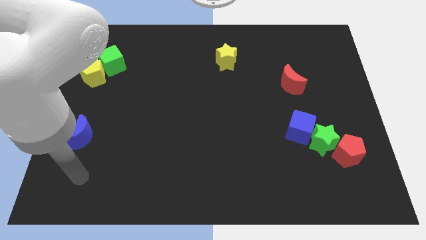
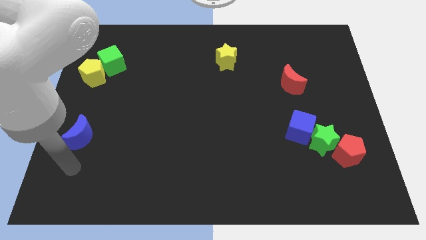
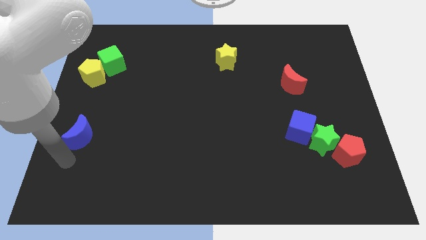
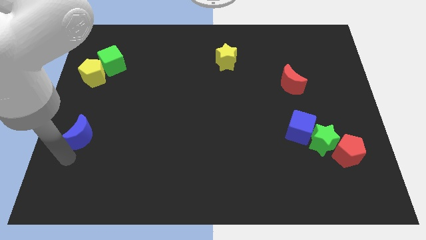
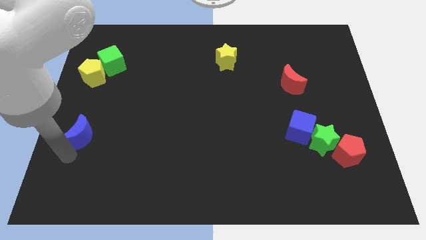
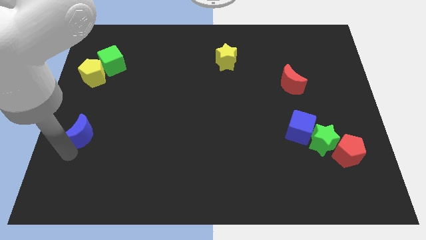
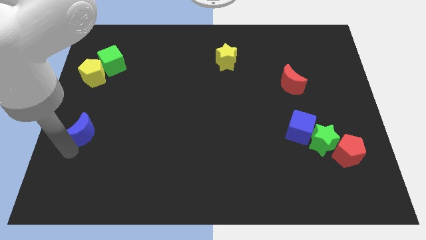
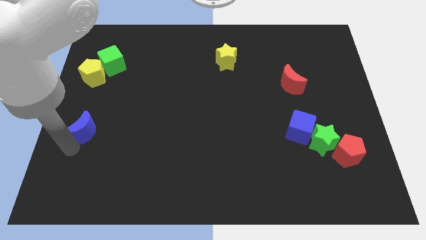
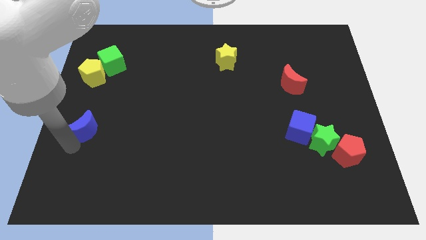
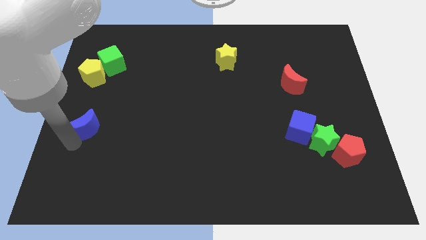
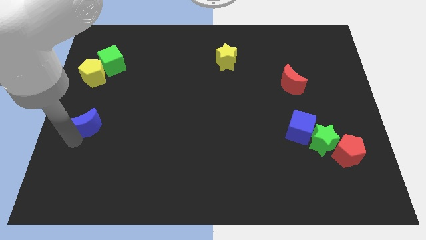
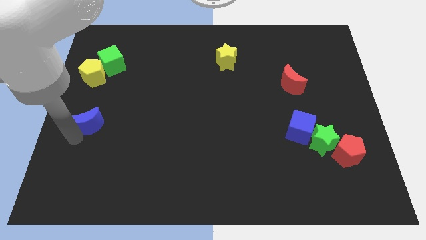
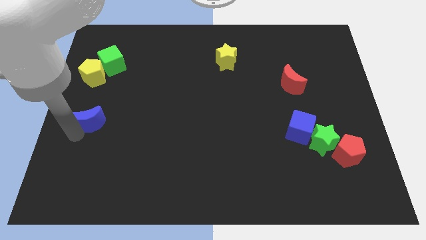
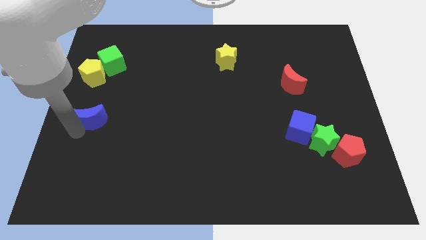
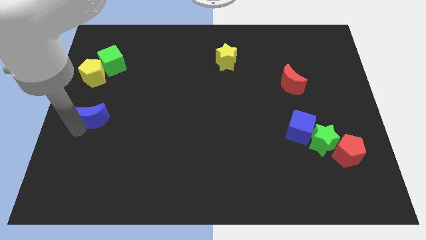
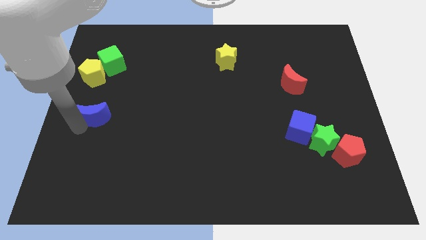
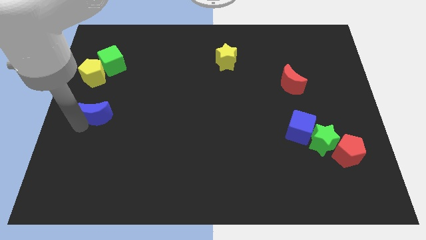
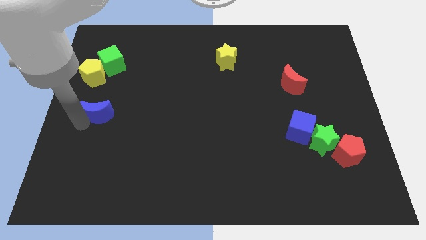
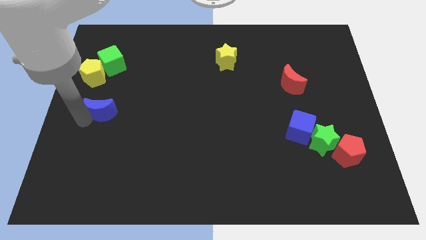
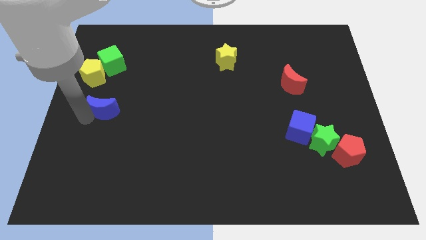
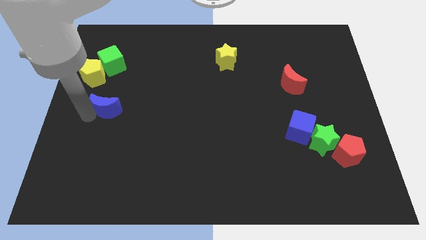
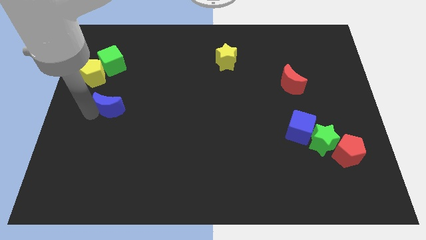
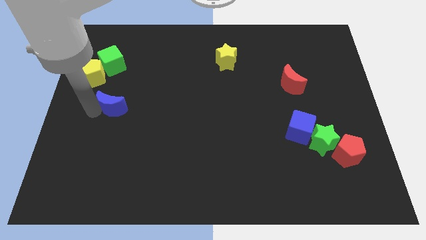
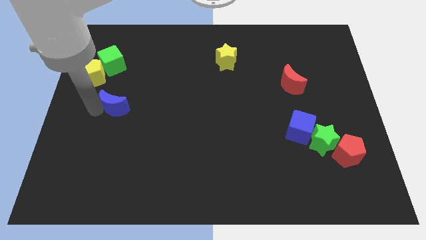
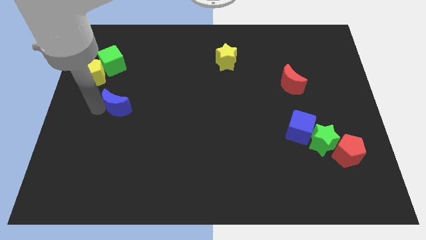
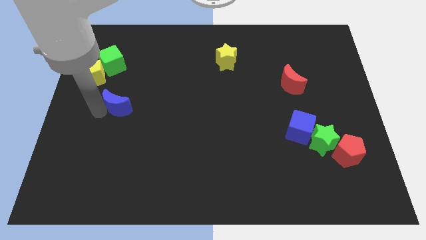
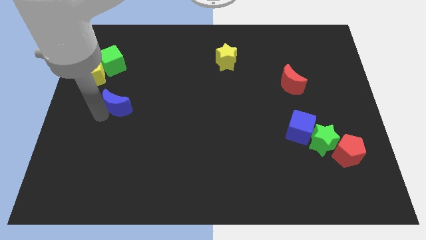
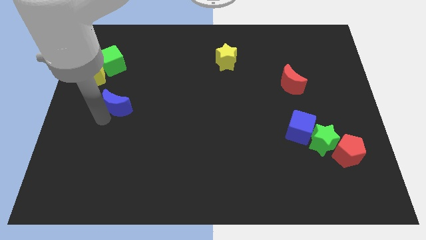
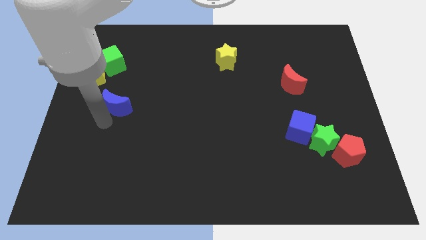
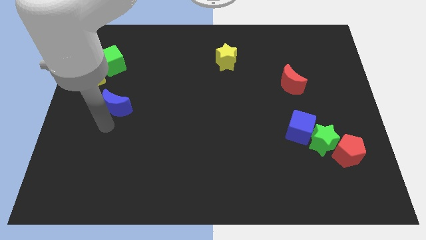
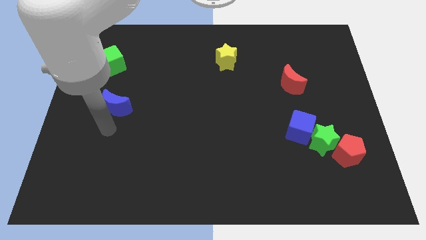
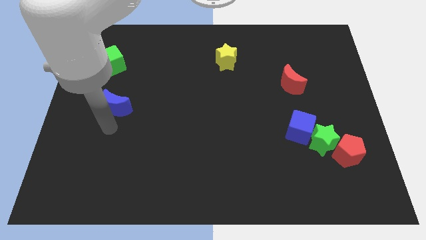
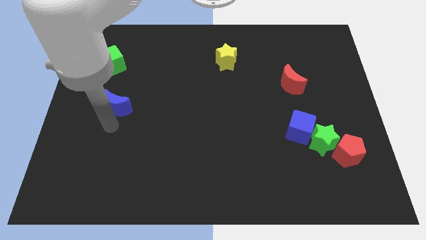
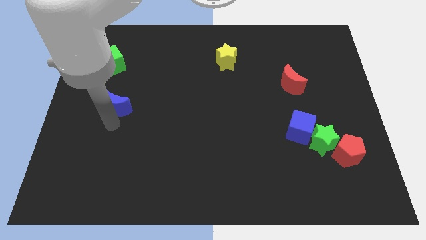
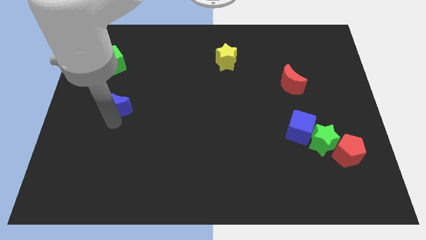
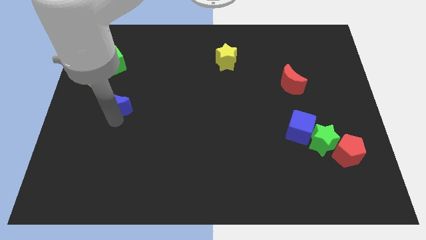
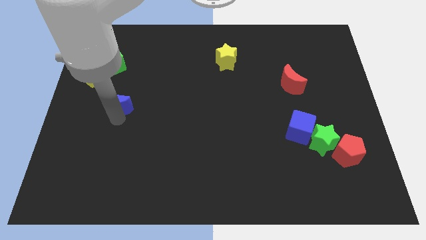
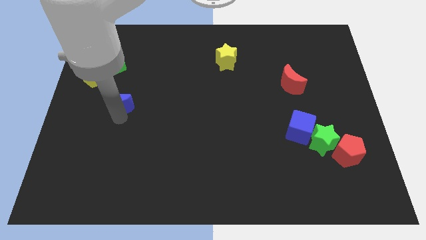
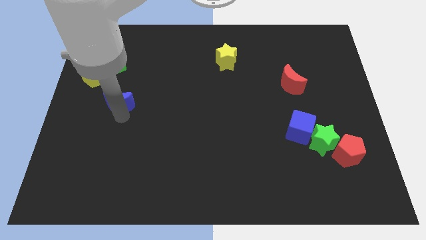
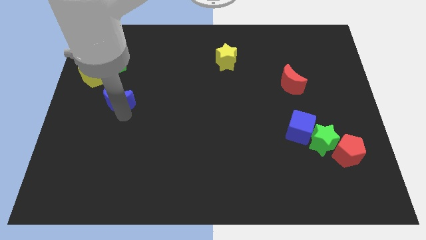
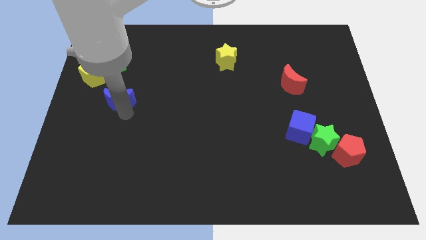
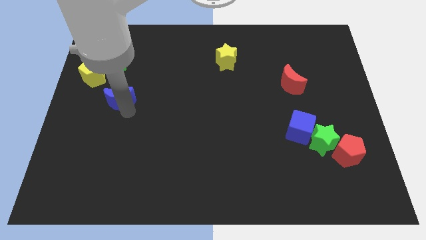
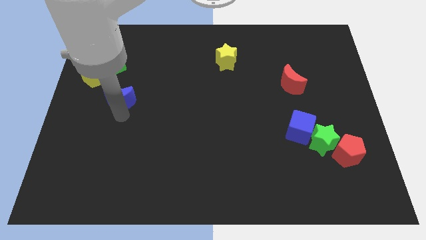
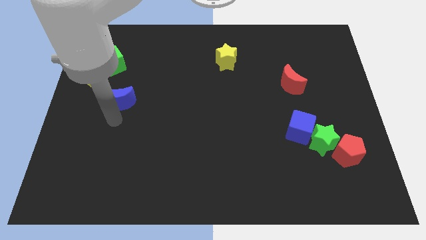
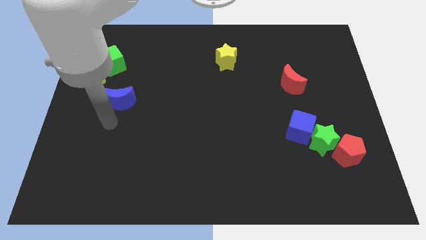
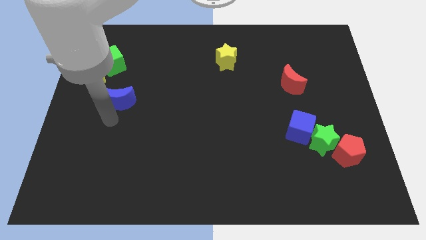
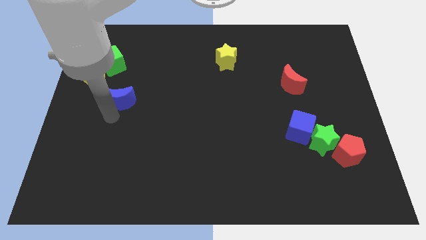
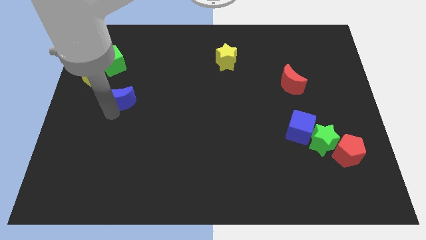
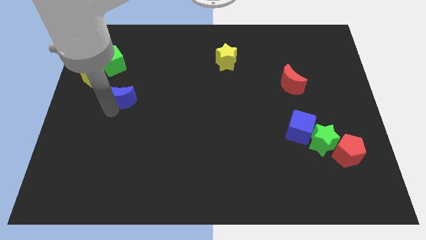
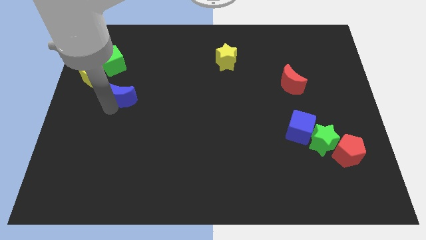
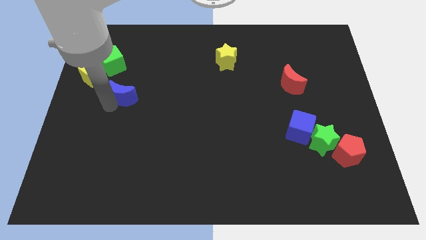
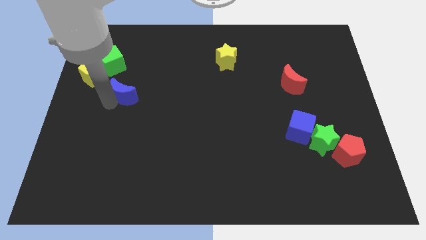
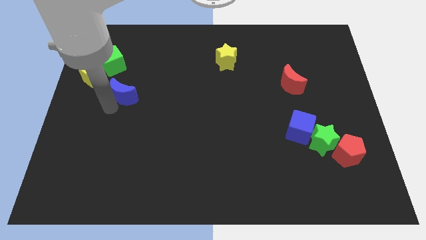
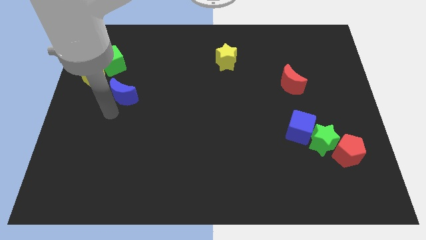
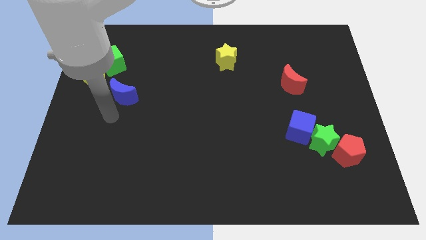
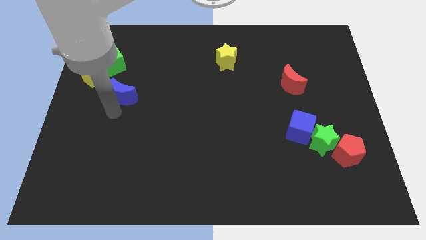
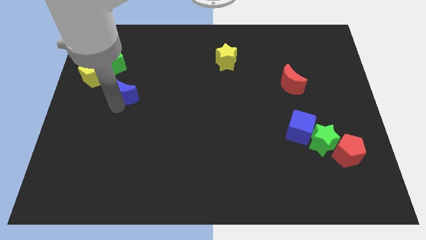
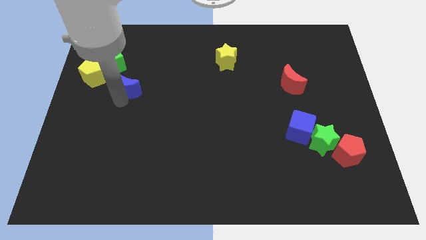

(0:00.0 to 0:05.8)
move the blue moon right of the yellow pentagon

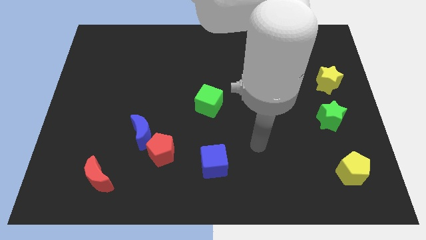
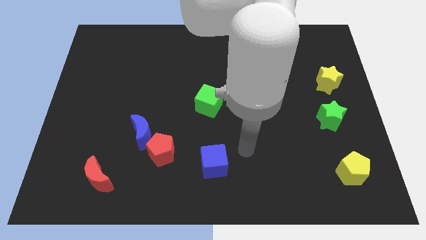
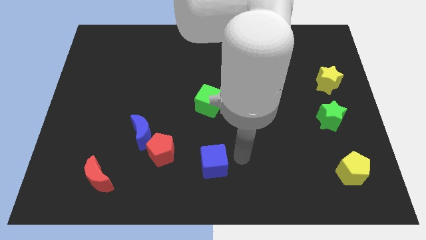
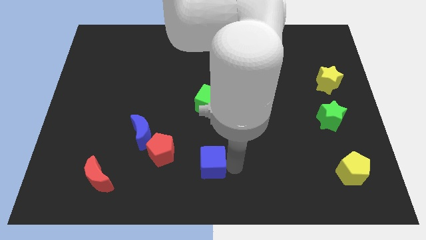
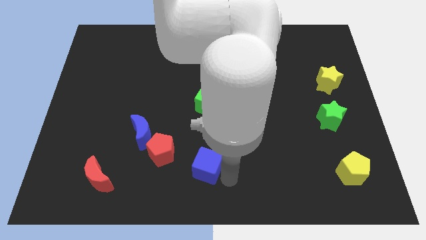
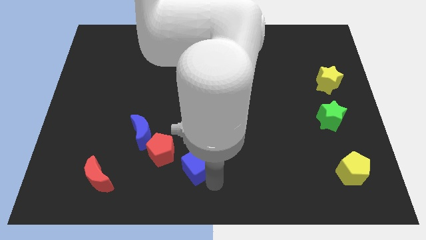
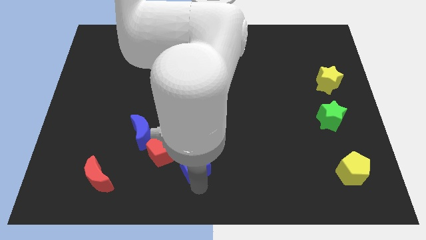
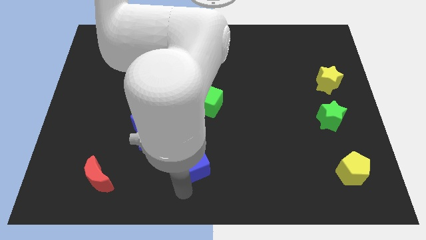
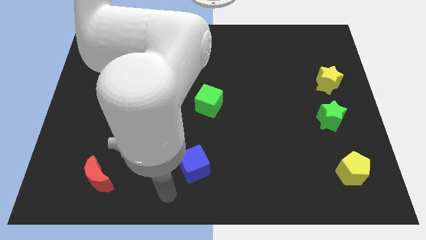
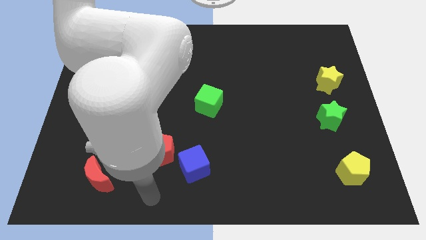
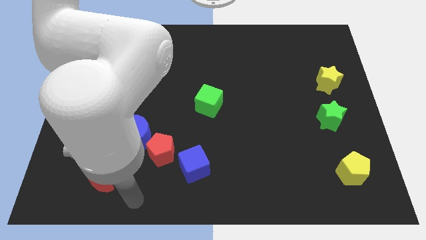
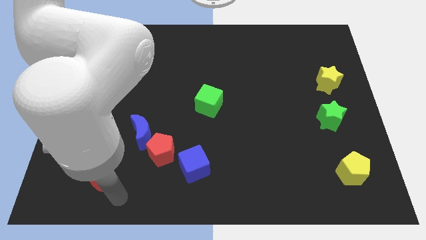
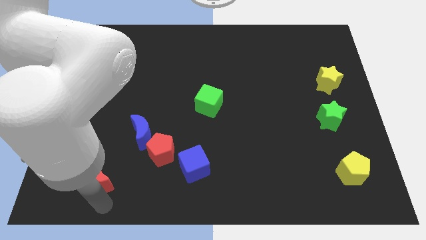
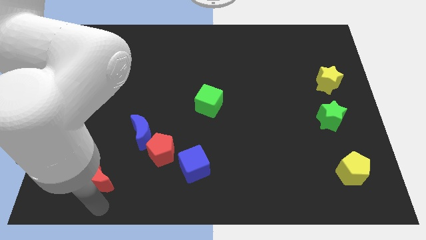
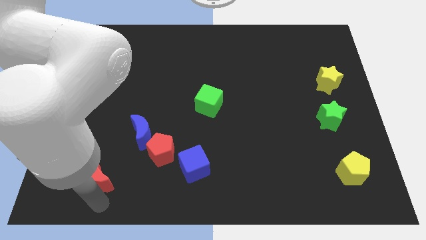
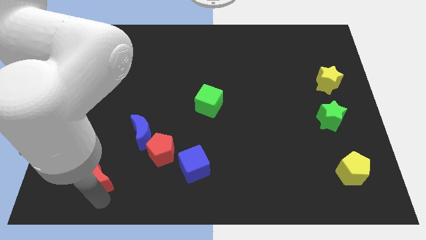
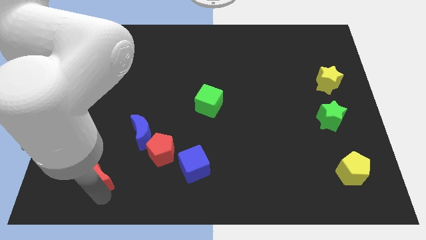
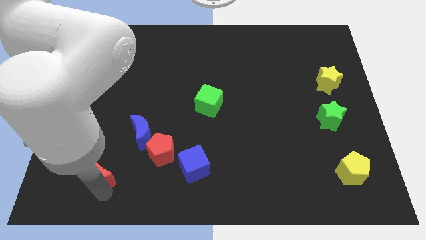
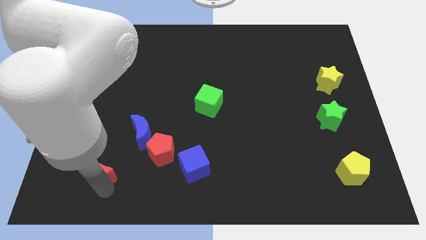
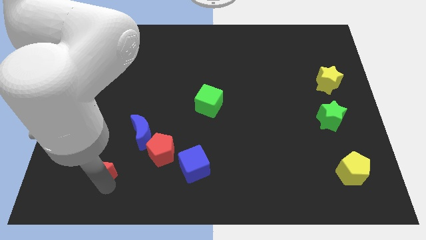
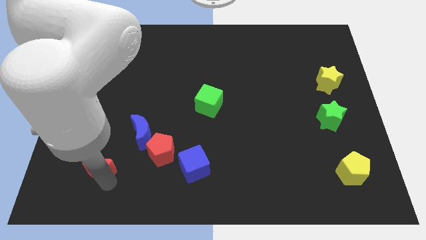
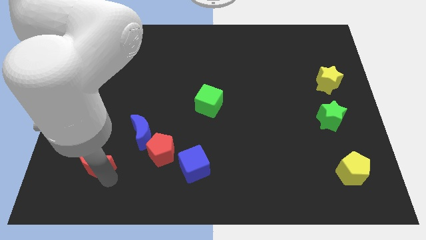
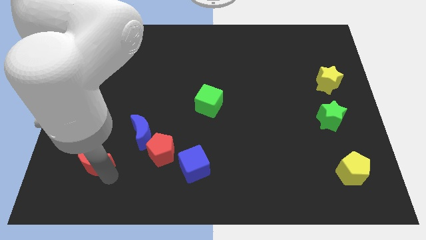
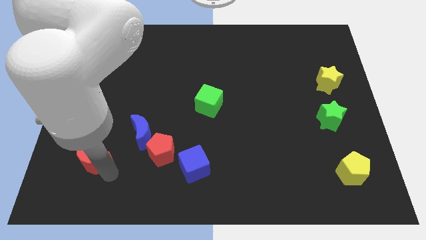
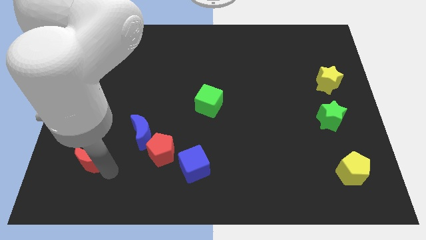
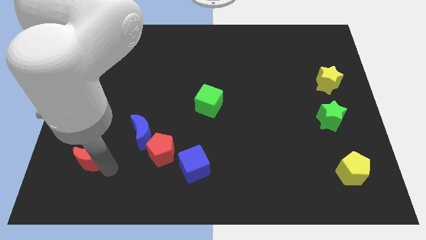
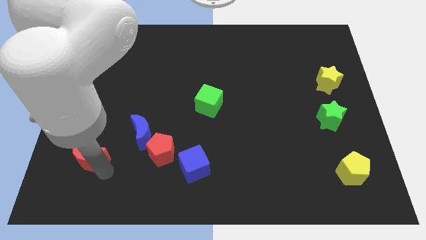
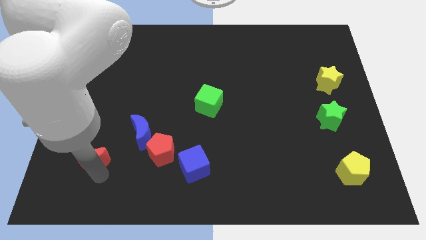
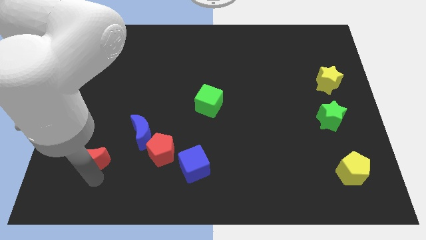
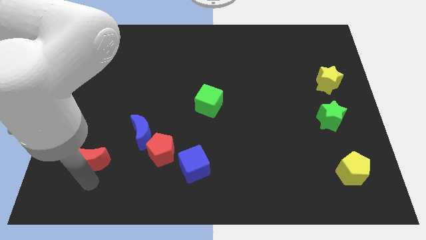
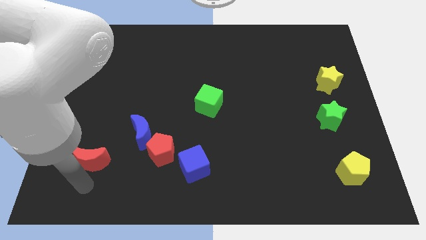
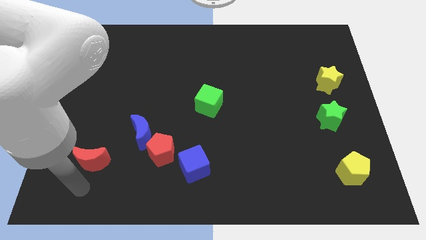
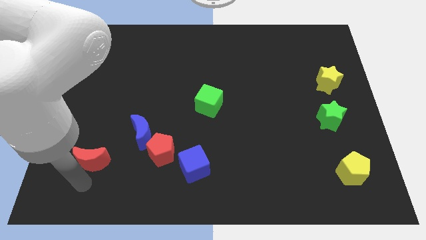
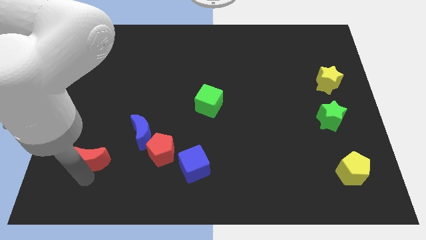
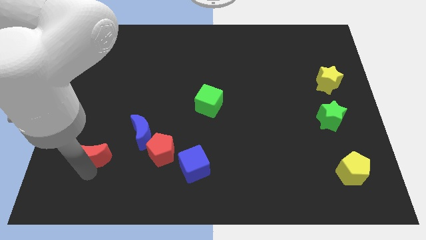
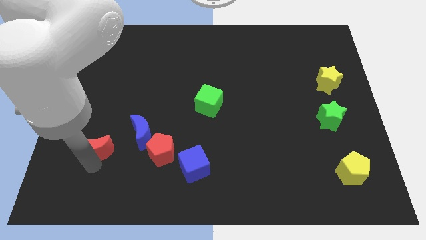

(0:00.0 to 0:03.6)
slide the red moon just left of the blue moon
